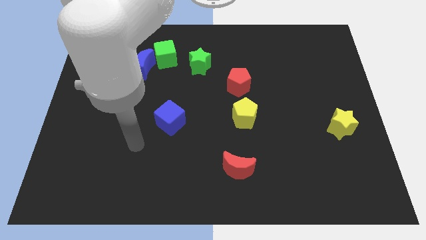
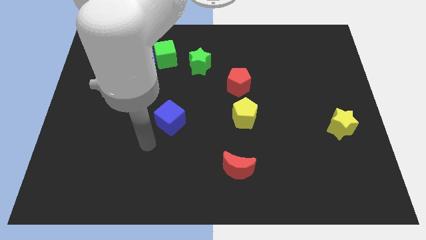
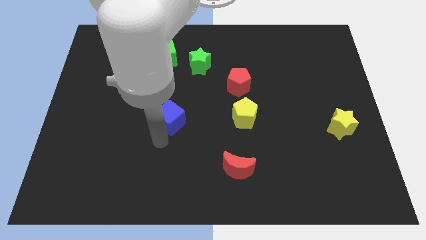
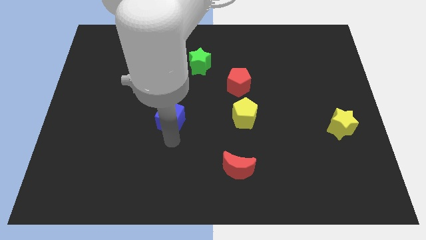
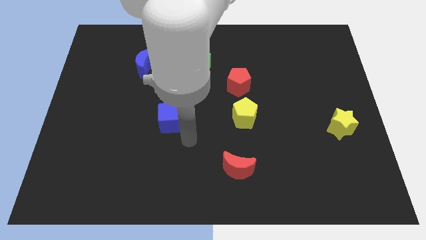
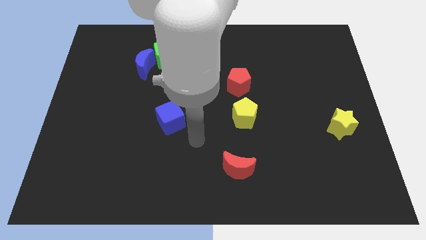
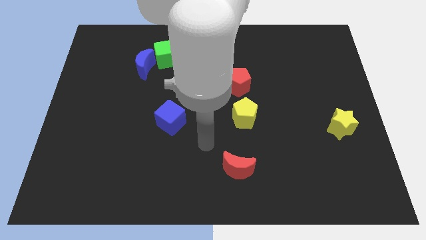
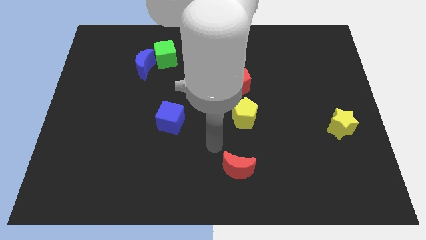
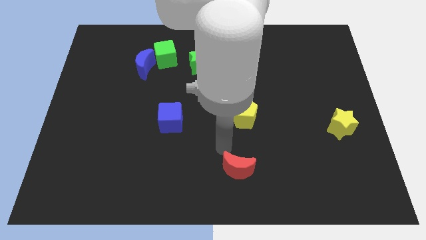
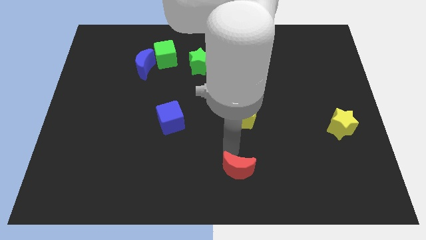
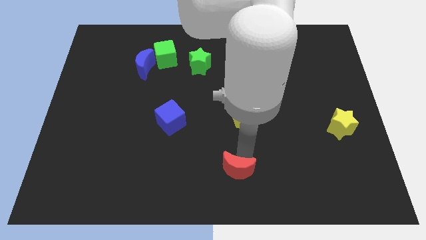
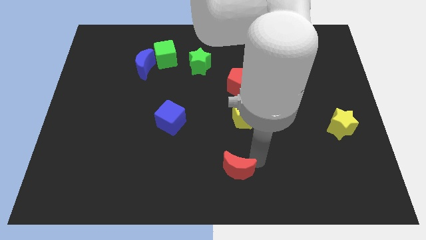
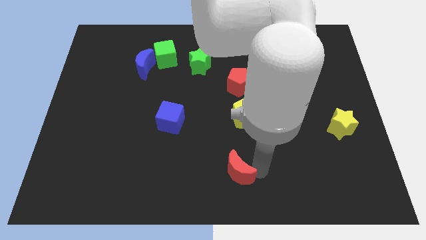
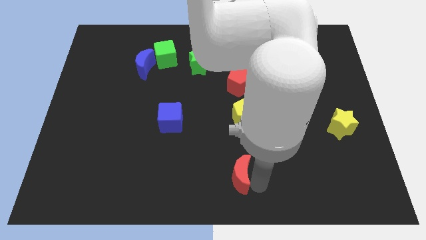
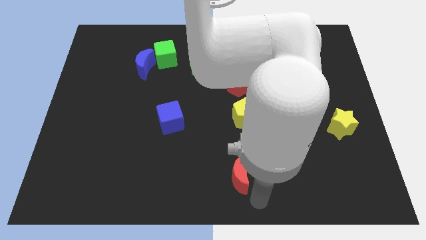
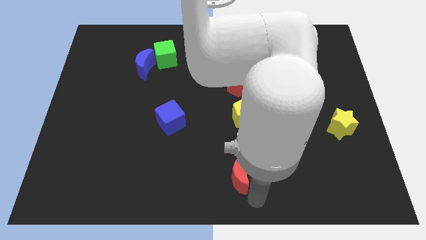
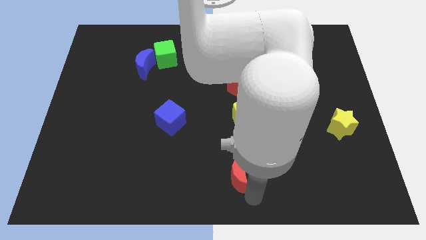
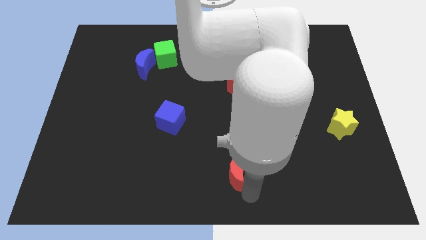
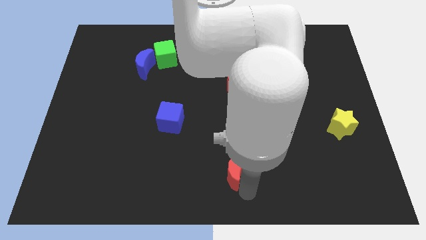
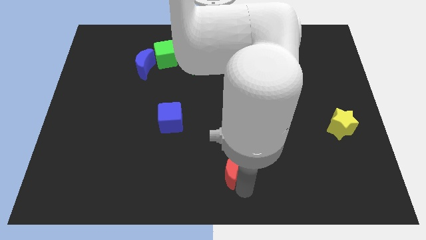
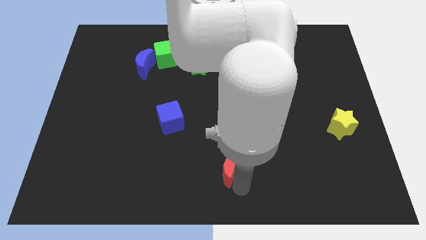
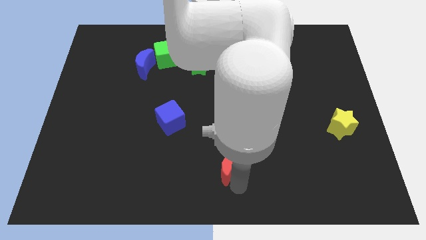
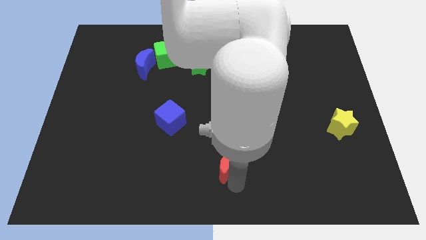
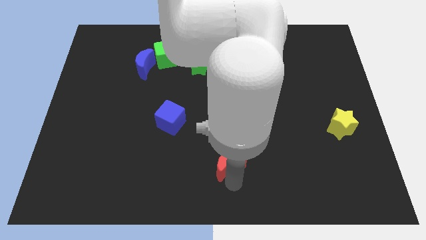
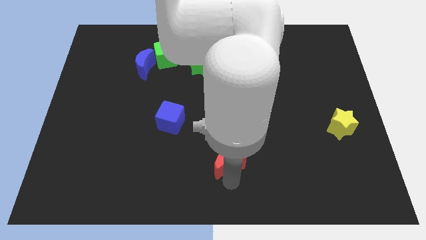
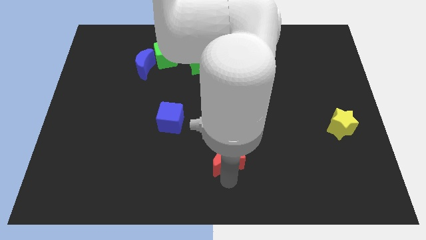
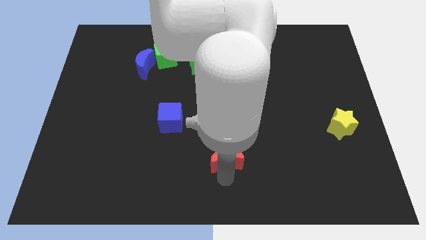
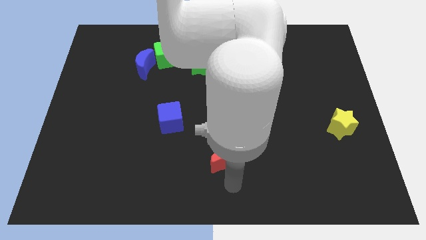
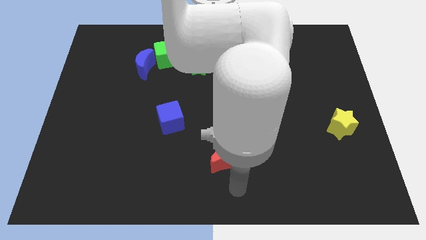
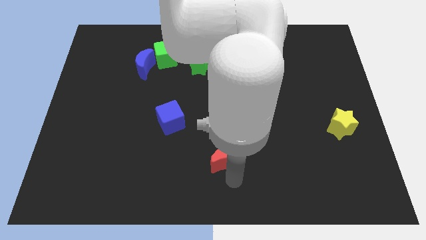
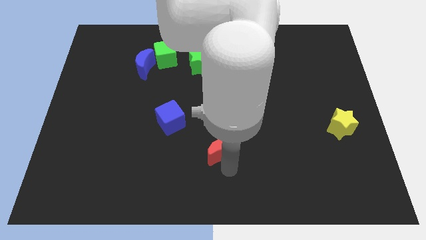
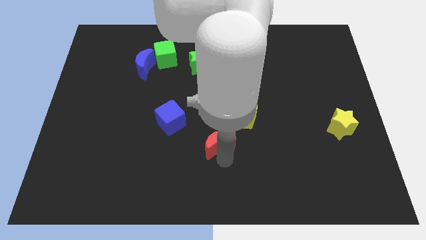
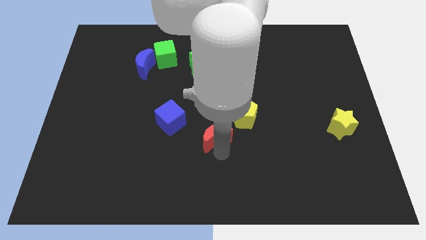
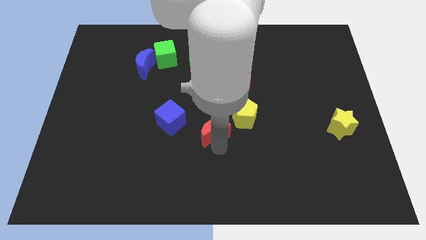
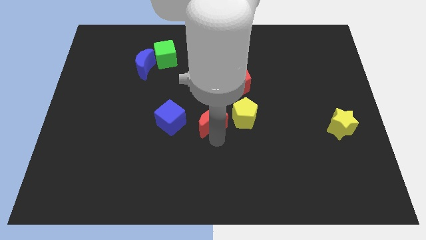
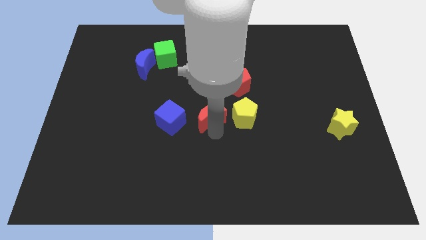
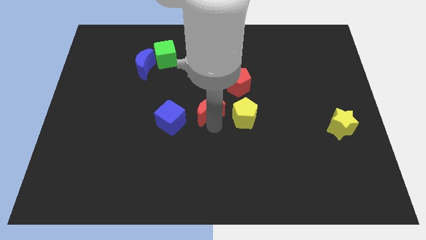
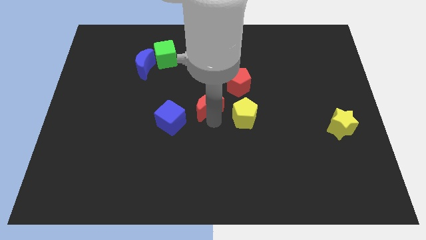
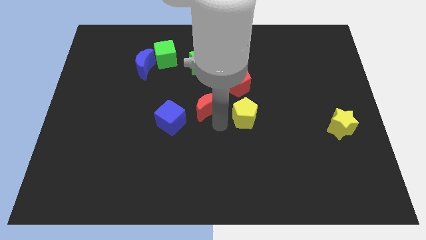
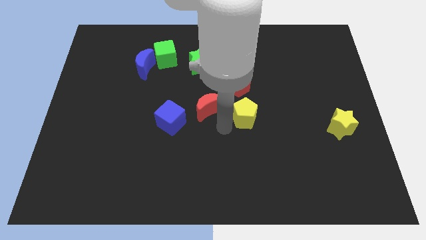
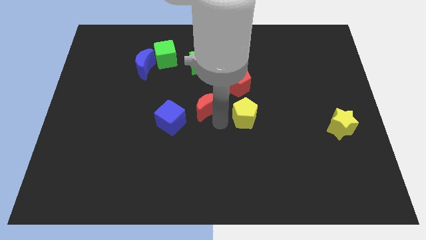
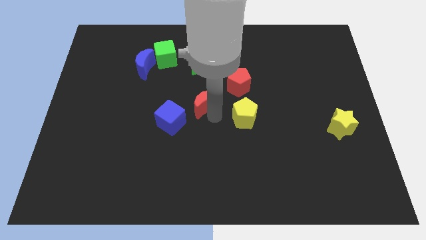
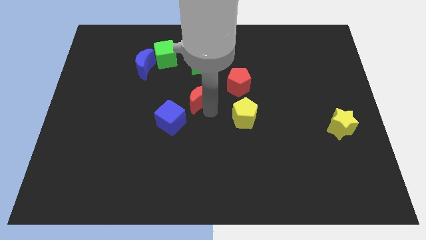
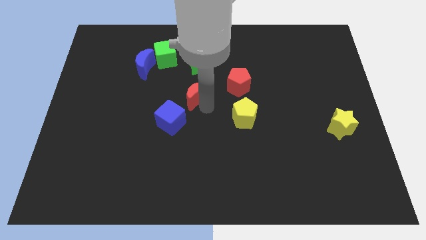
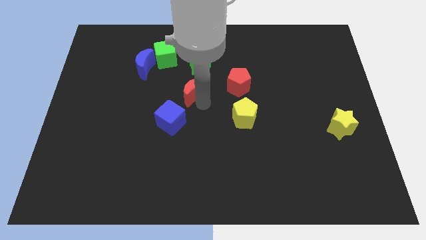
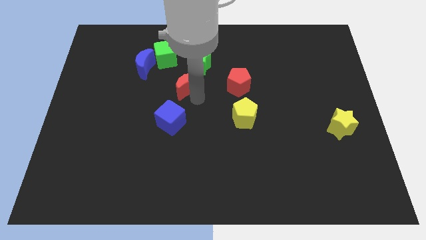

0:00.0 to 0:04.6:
slide the red moon diagonally down and to the right of the green cube

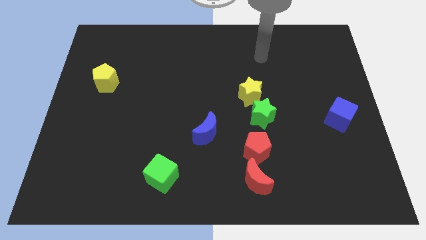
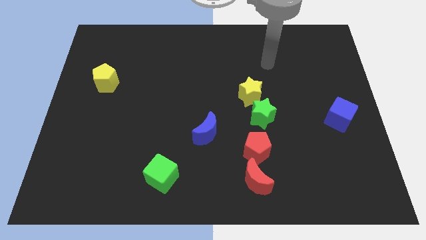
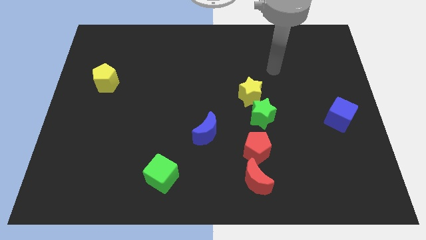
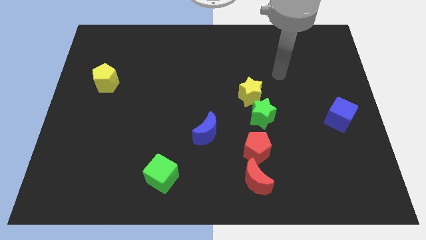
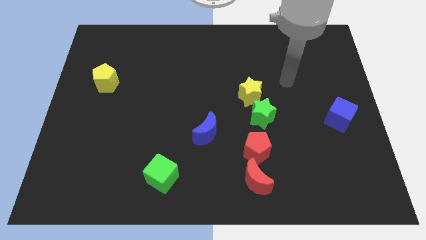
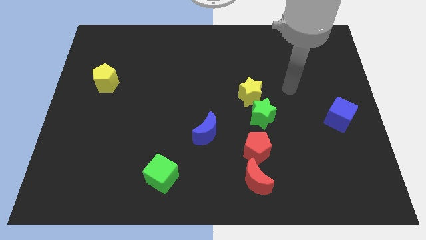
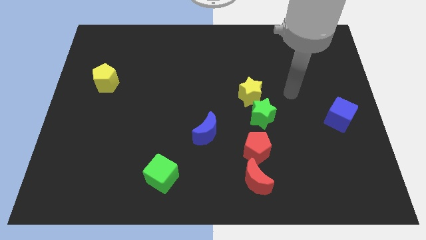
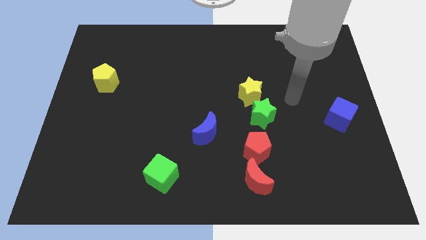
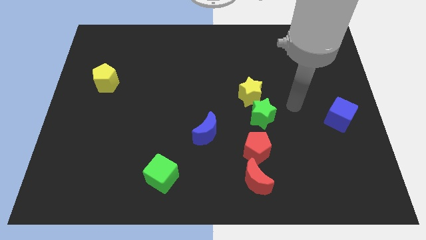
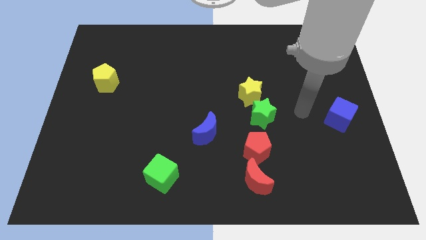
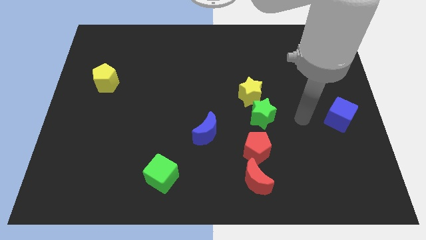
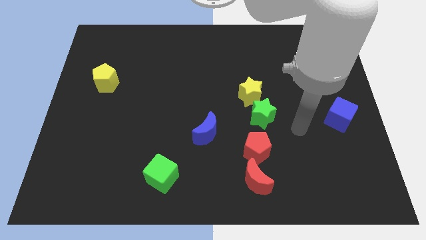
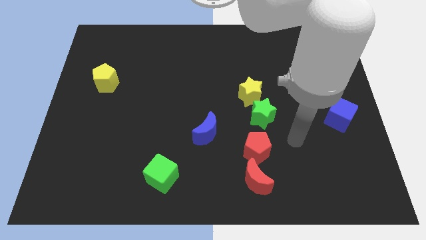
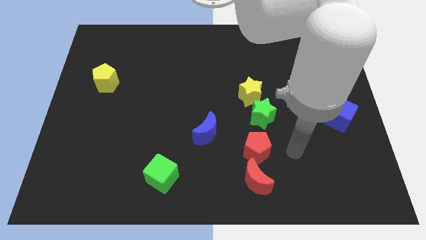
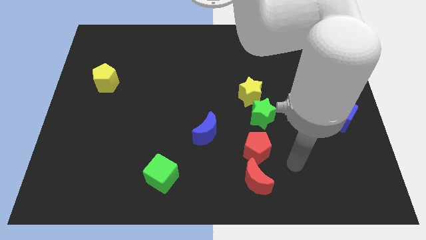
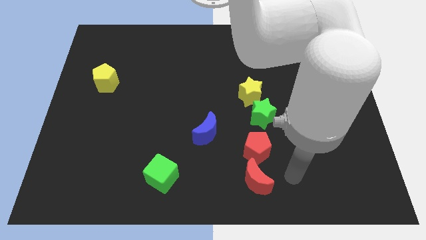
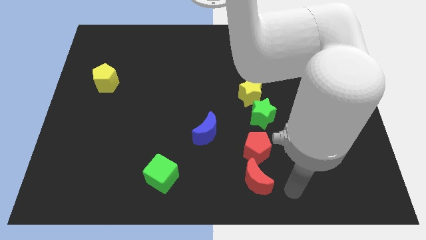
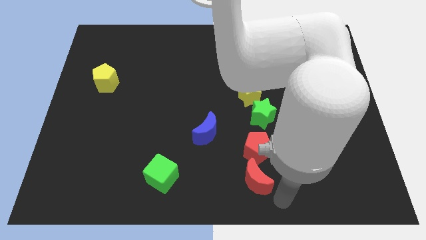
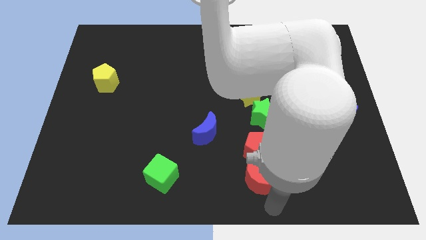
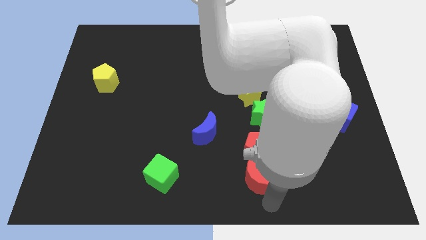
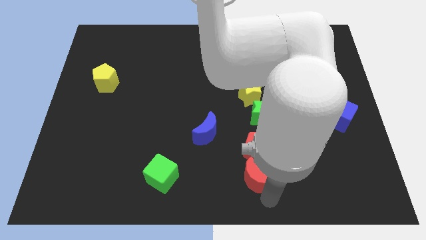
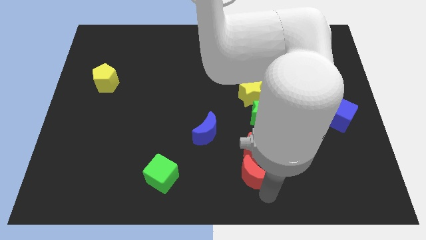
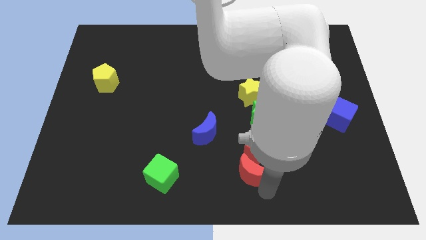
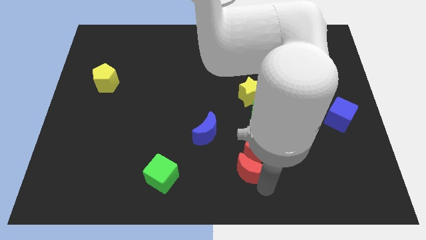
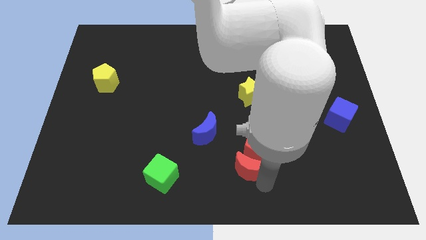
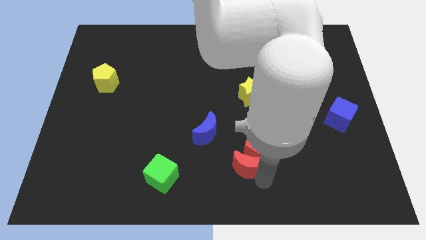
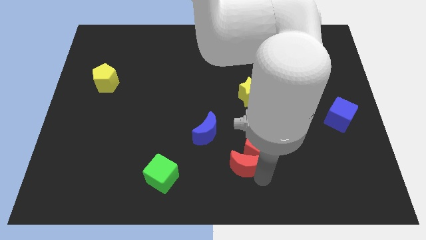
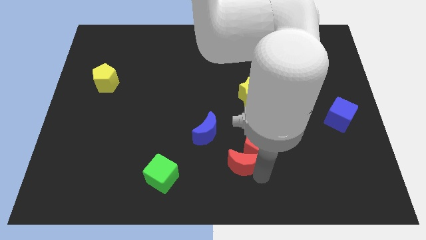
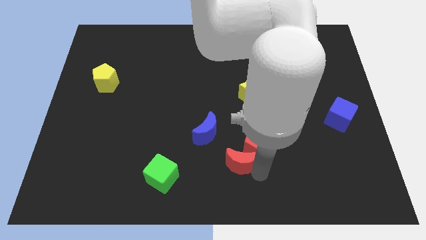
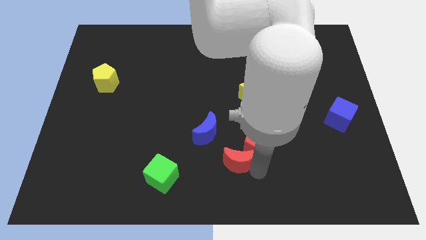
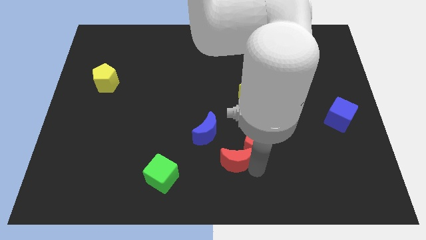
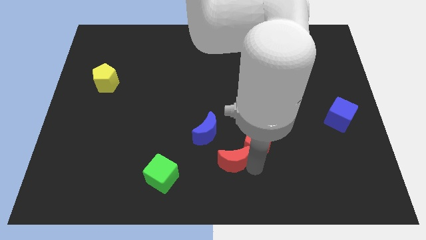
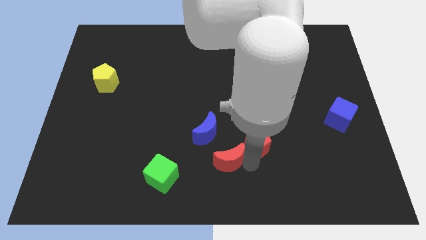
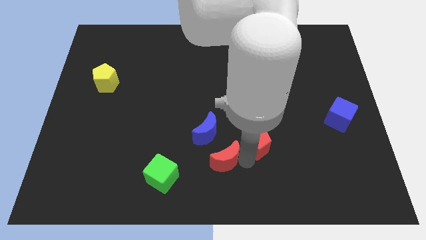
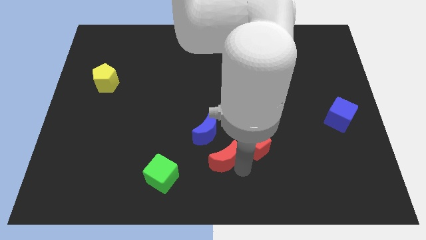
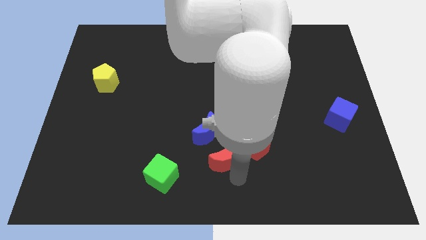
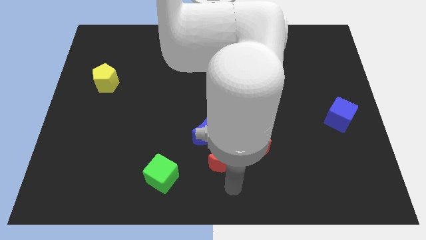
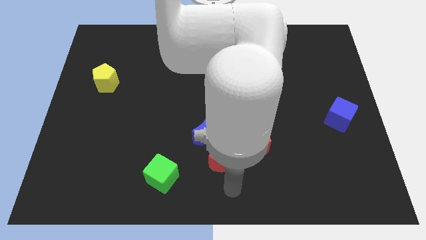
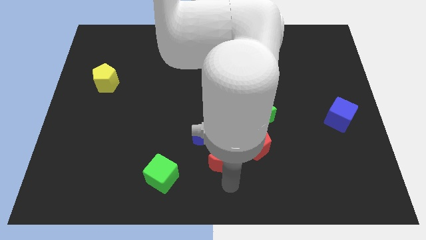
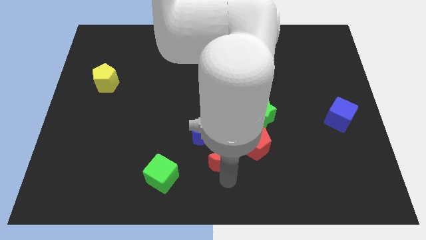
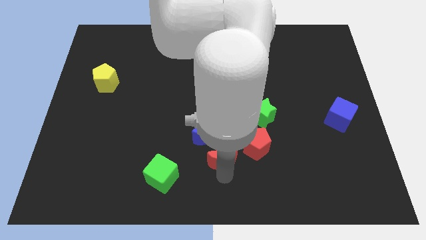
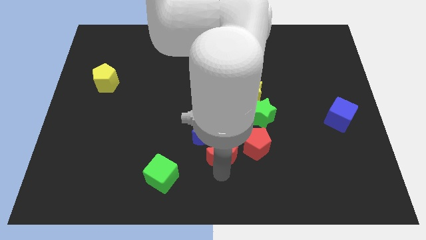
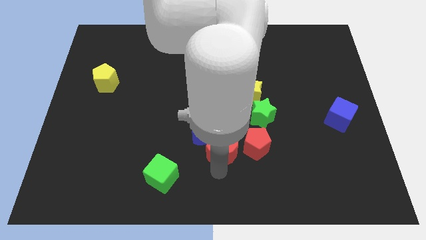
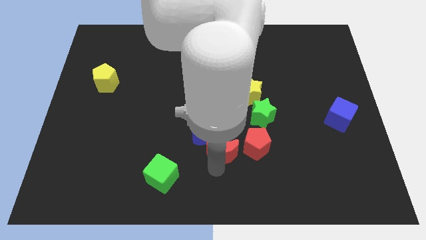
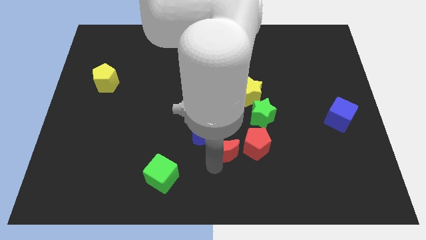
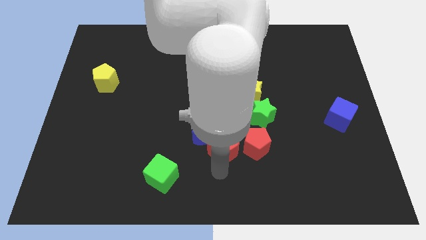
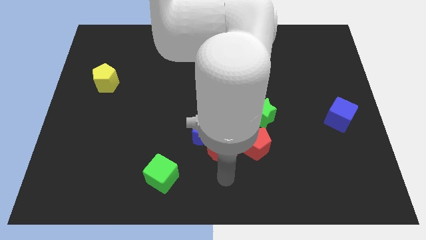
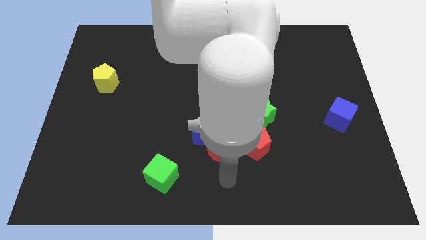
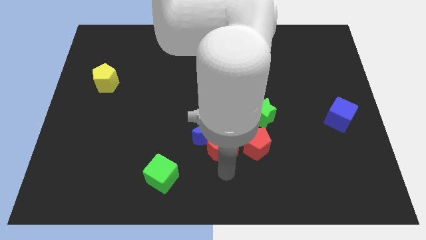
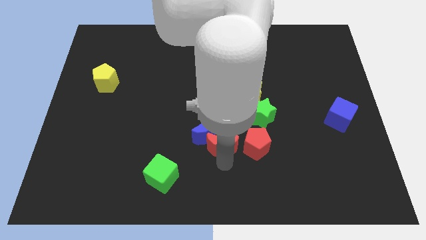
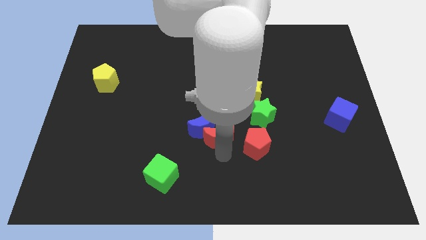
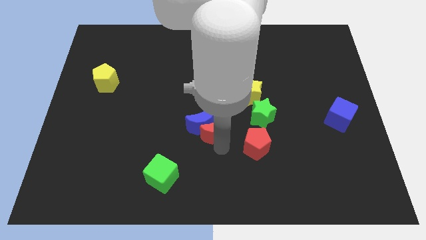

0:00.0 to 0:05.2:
move the red moon to the left side of the green star
